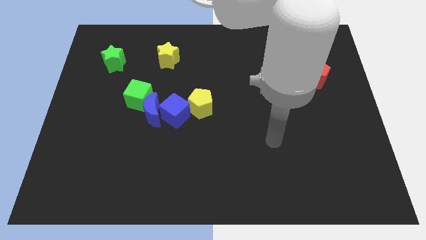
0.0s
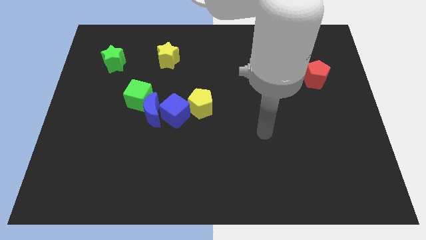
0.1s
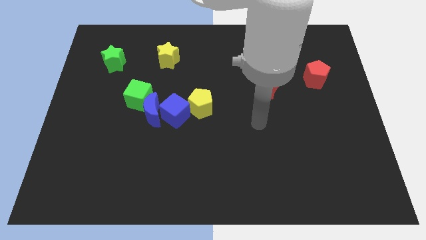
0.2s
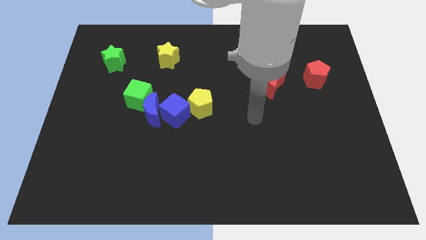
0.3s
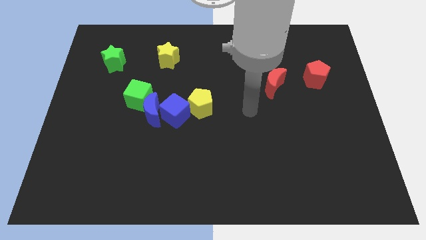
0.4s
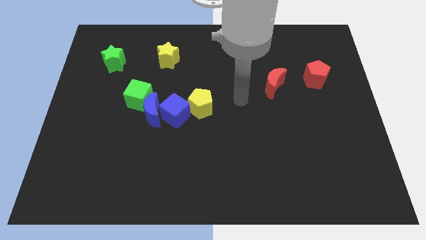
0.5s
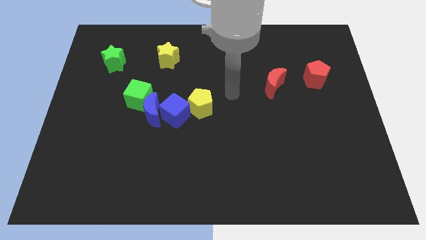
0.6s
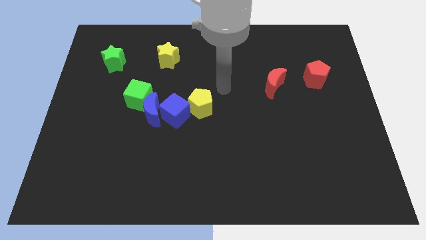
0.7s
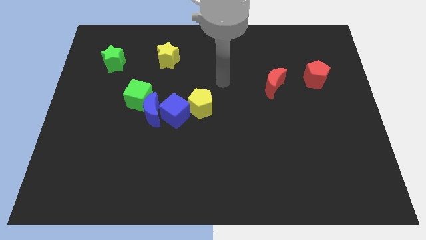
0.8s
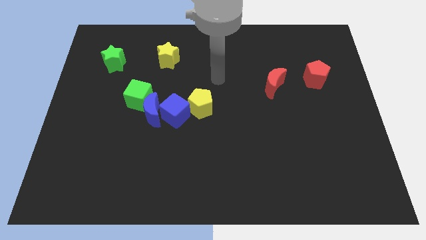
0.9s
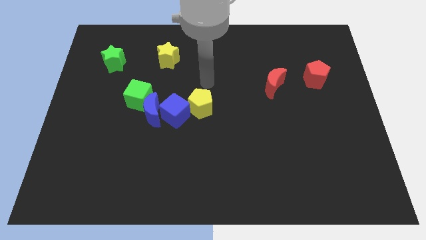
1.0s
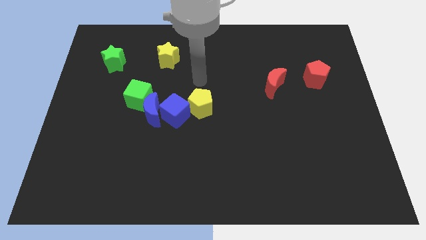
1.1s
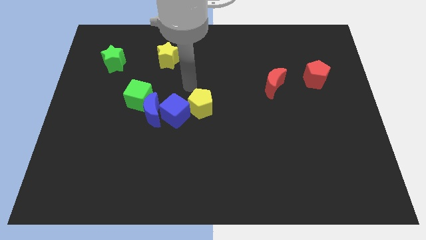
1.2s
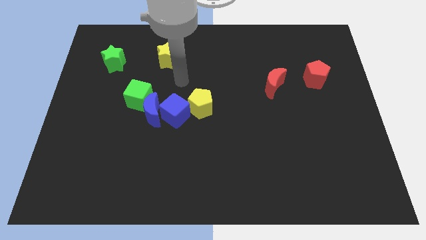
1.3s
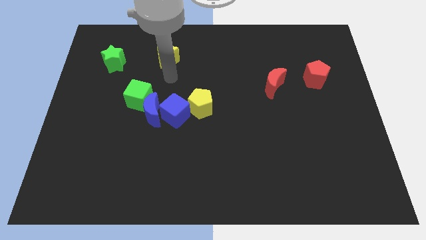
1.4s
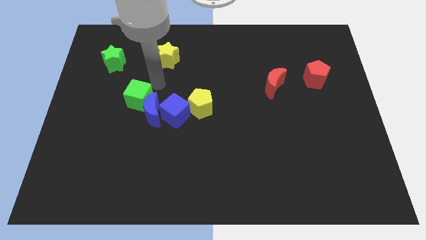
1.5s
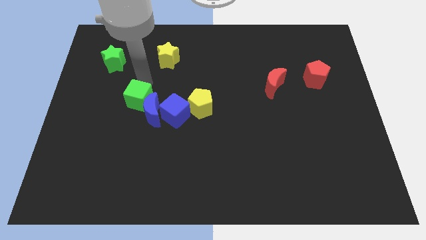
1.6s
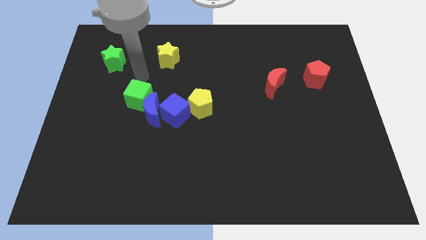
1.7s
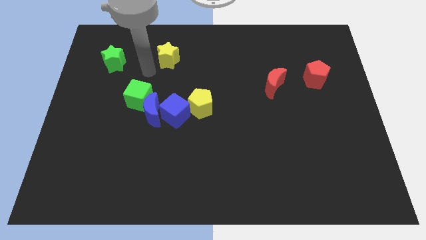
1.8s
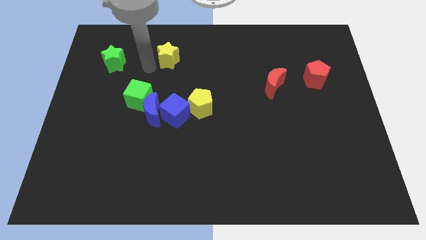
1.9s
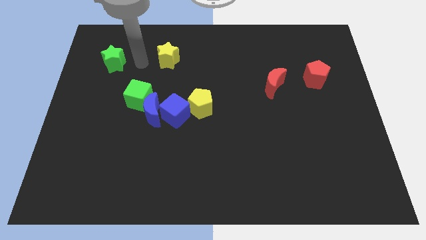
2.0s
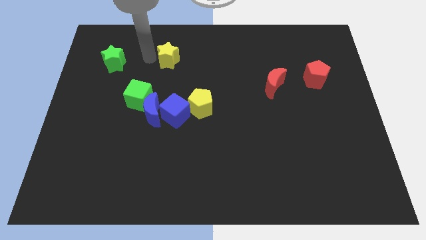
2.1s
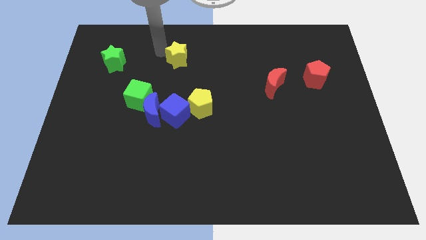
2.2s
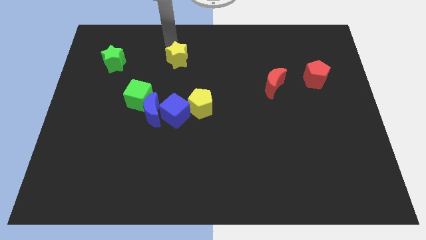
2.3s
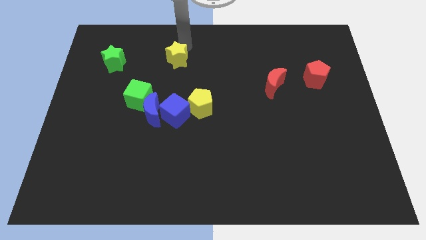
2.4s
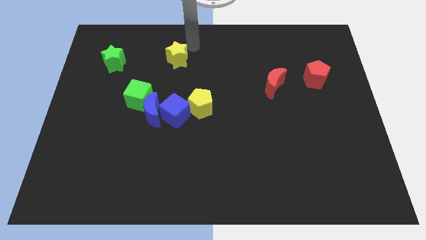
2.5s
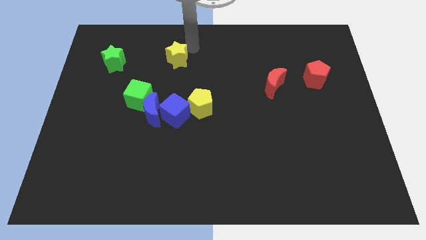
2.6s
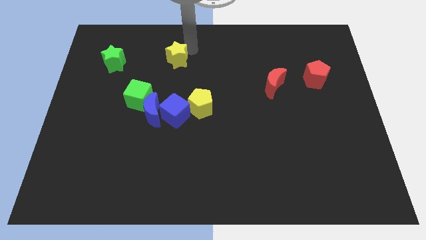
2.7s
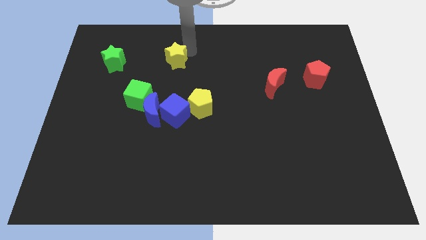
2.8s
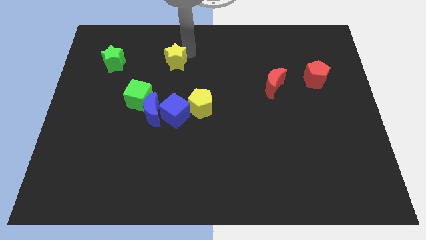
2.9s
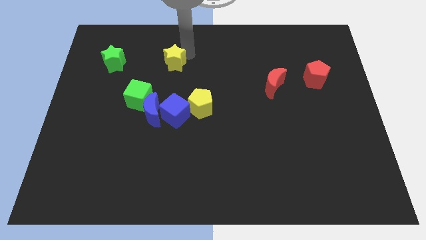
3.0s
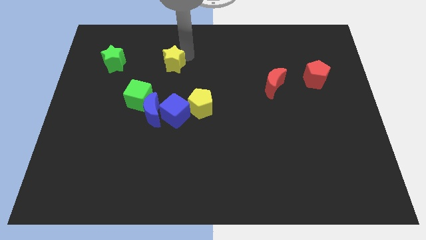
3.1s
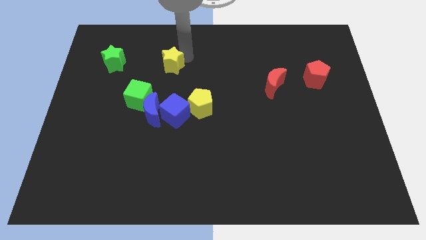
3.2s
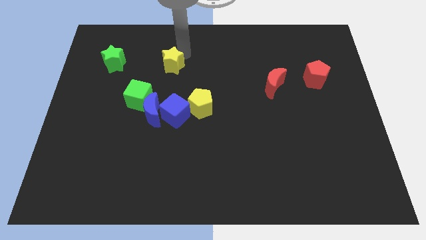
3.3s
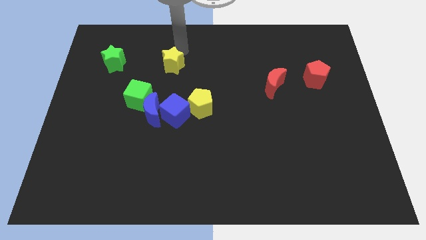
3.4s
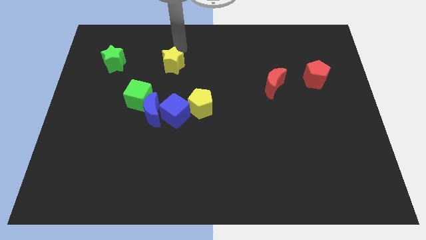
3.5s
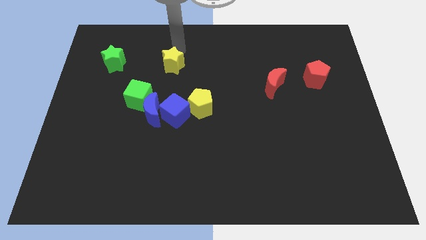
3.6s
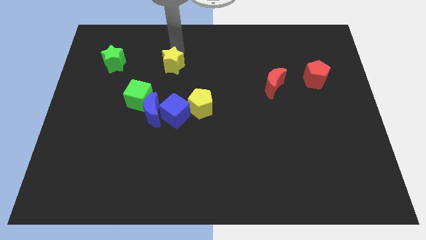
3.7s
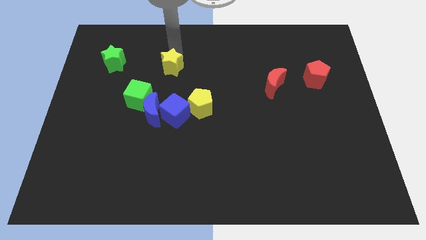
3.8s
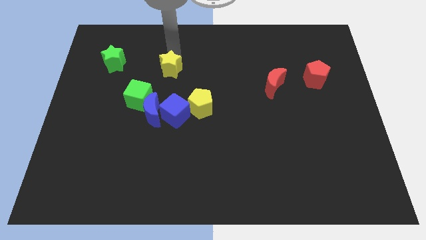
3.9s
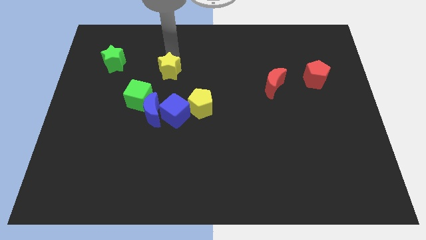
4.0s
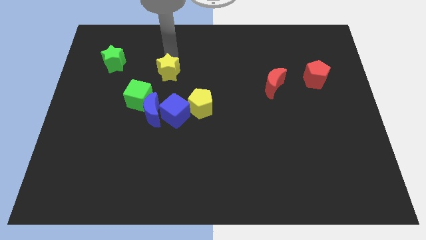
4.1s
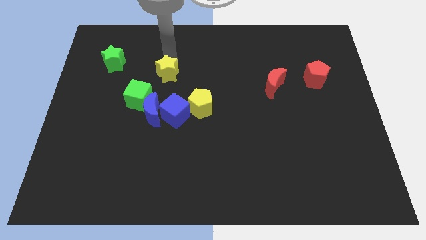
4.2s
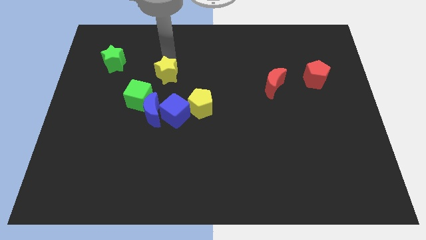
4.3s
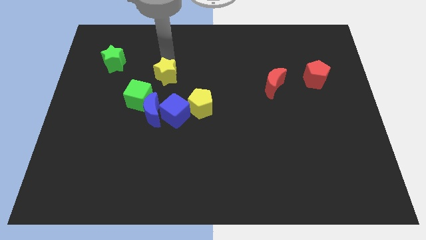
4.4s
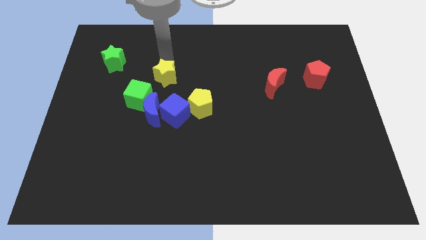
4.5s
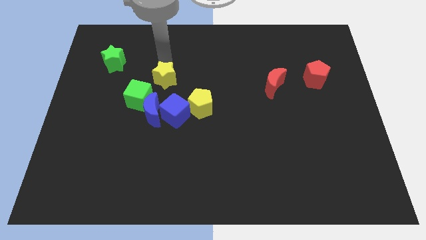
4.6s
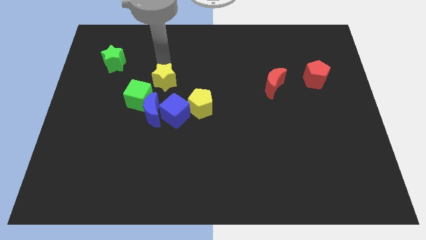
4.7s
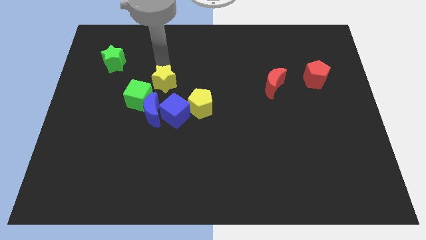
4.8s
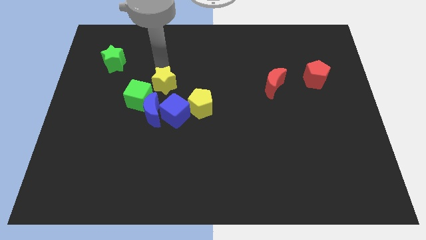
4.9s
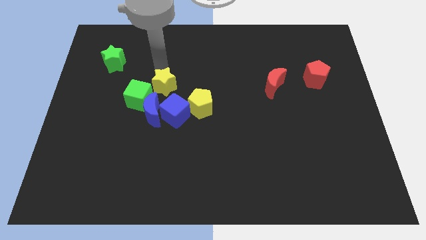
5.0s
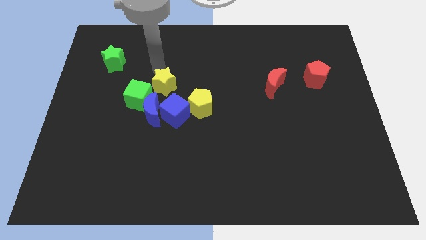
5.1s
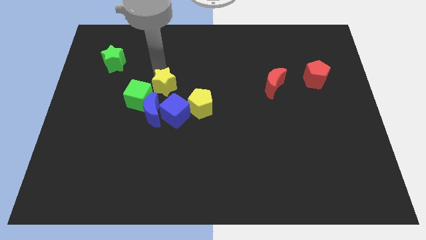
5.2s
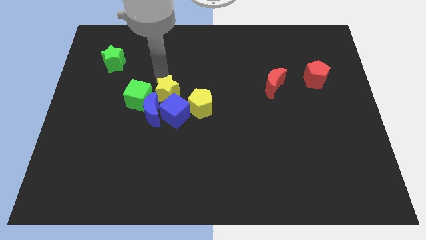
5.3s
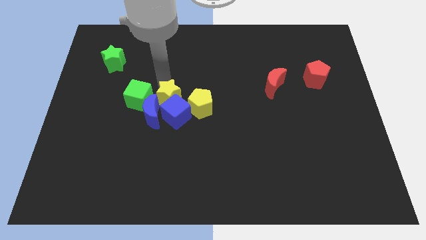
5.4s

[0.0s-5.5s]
push the yellow star towards the blue cube

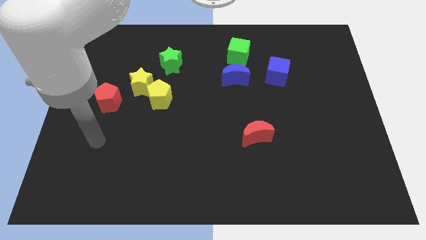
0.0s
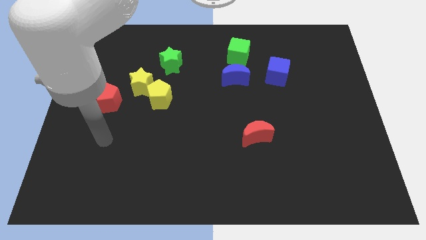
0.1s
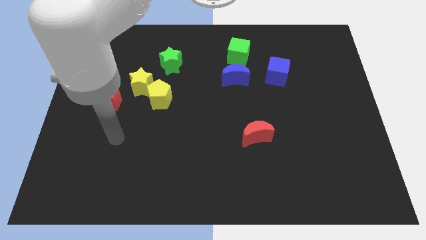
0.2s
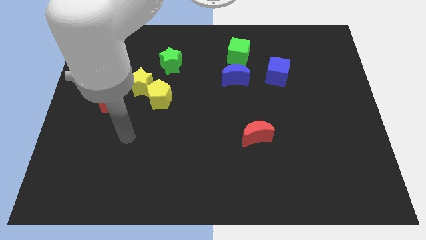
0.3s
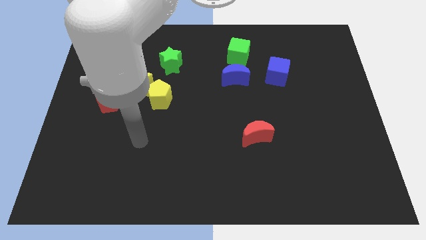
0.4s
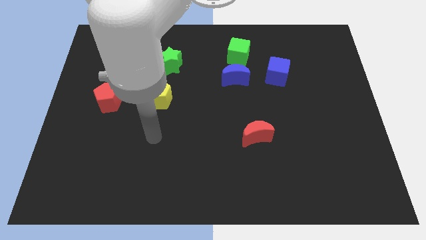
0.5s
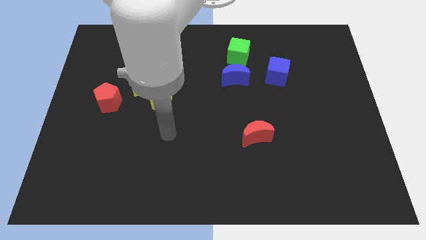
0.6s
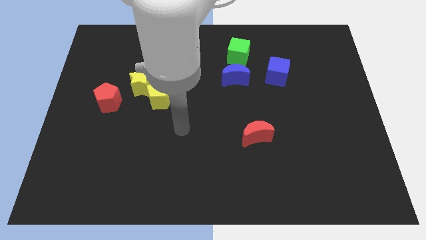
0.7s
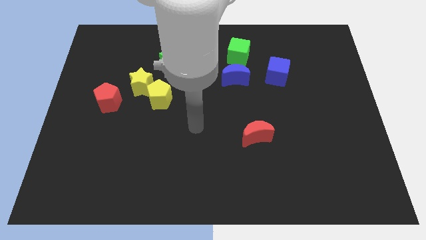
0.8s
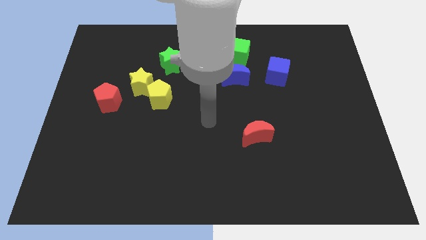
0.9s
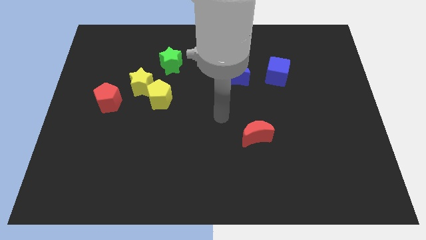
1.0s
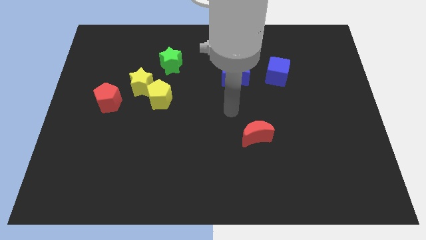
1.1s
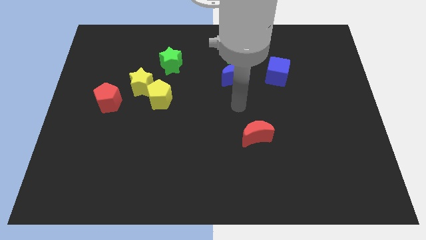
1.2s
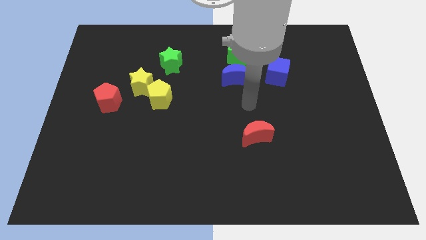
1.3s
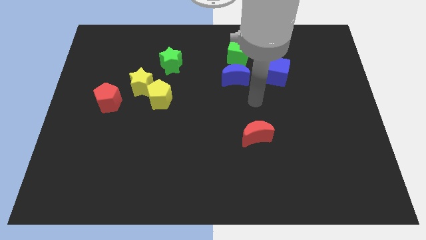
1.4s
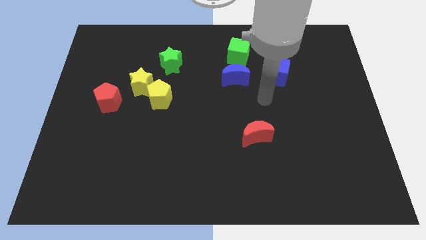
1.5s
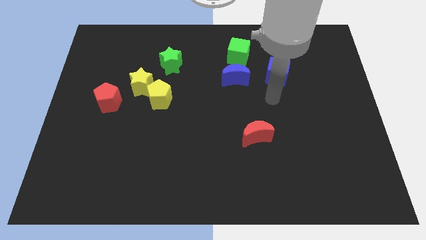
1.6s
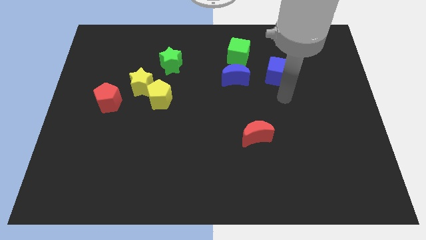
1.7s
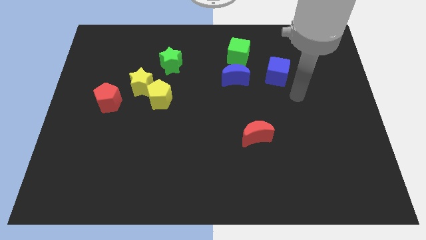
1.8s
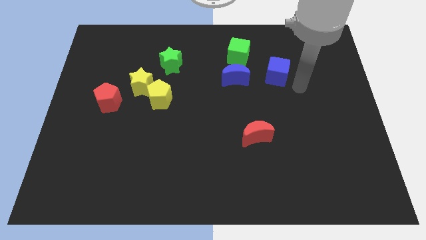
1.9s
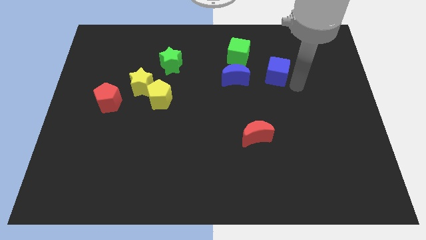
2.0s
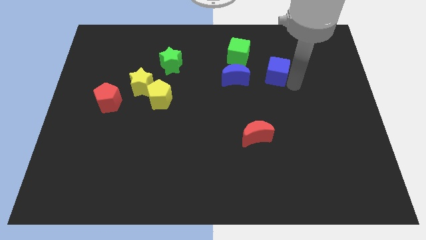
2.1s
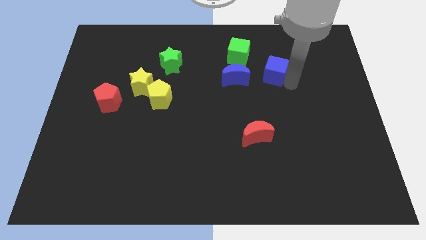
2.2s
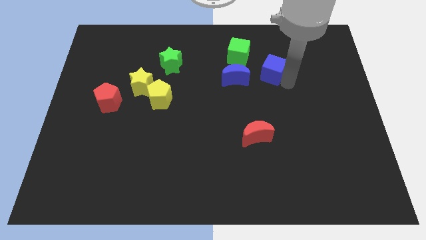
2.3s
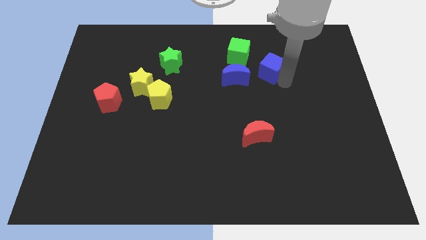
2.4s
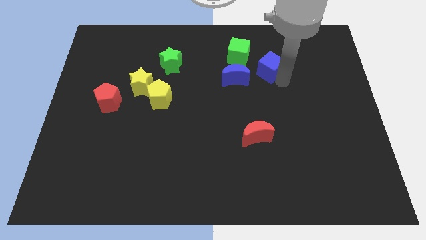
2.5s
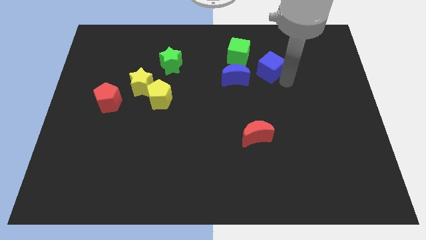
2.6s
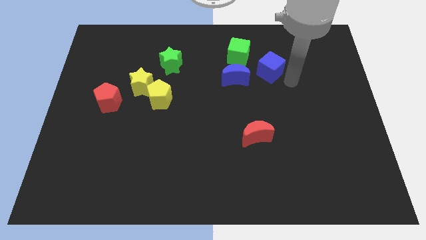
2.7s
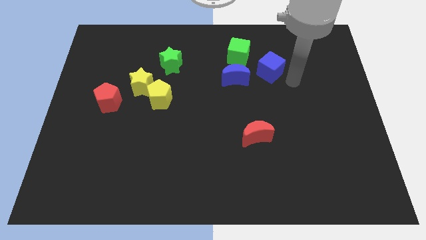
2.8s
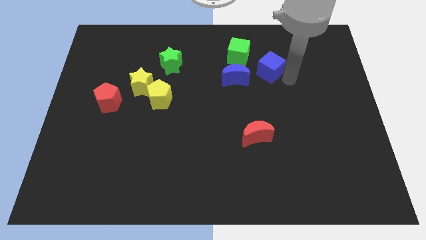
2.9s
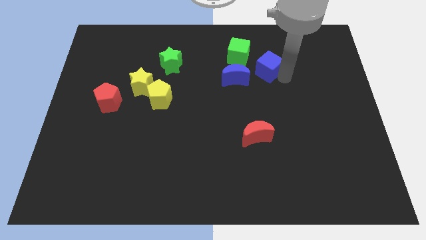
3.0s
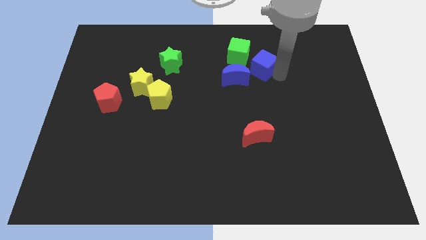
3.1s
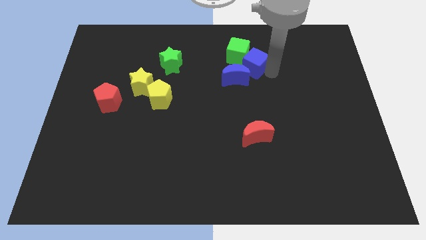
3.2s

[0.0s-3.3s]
push the blue cube towards the green cube
